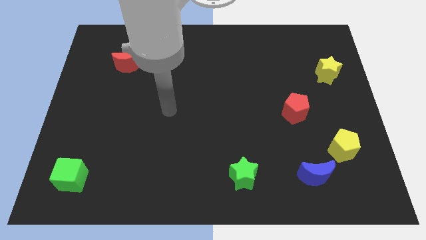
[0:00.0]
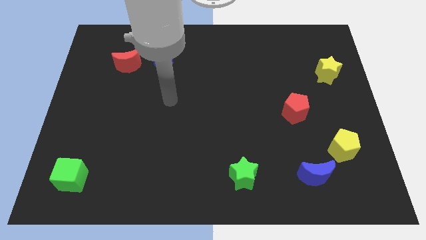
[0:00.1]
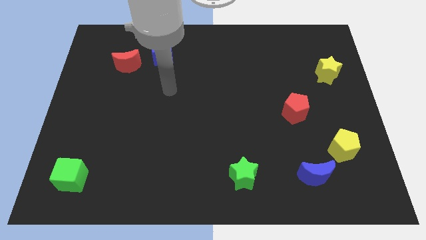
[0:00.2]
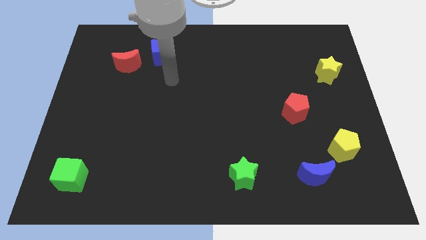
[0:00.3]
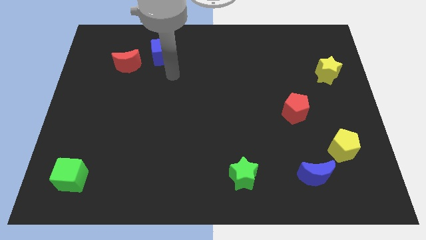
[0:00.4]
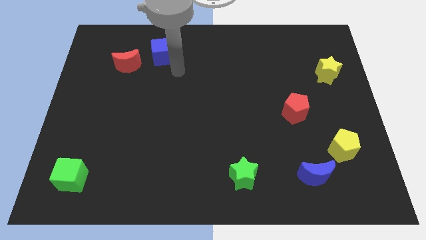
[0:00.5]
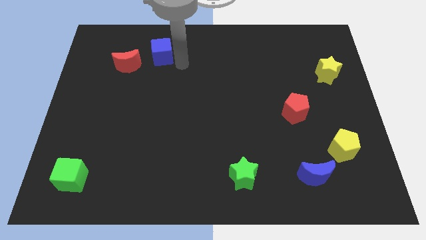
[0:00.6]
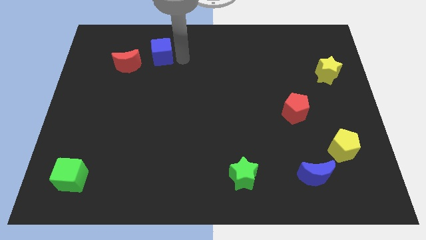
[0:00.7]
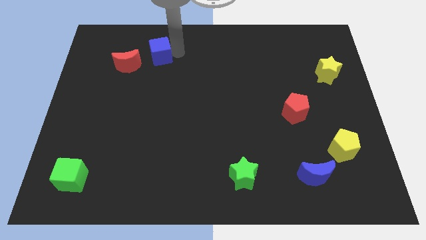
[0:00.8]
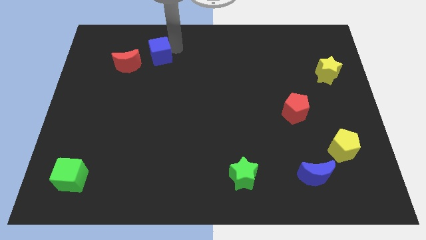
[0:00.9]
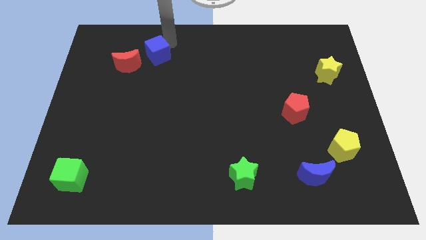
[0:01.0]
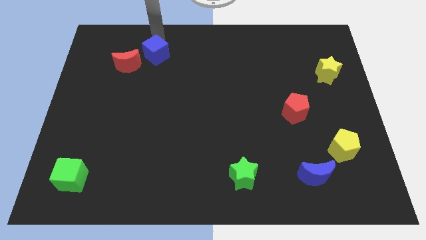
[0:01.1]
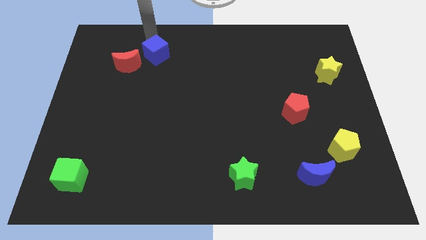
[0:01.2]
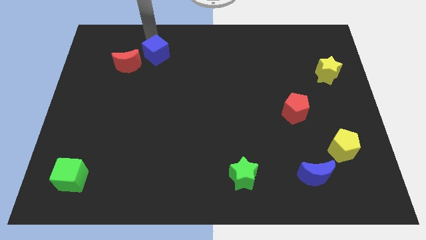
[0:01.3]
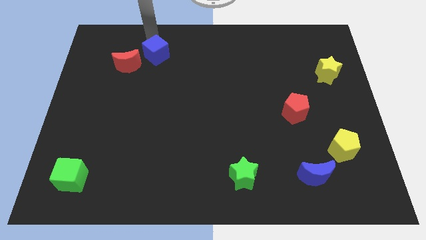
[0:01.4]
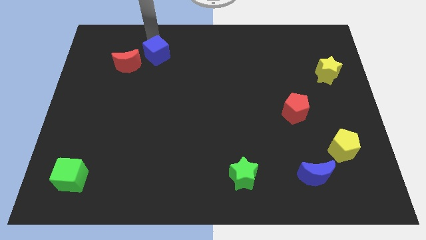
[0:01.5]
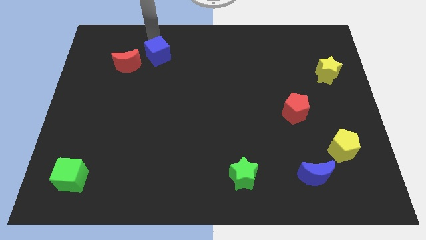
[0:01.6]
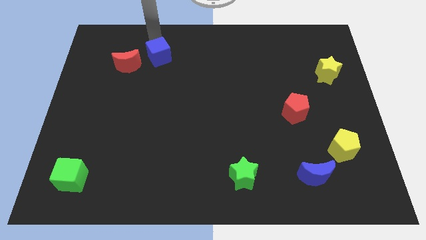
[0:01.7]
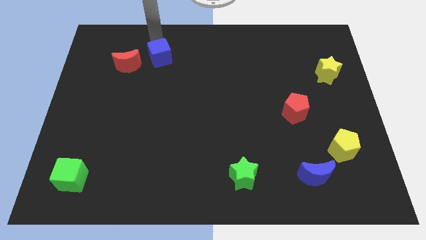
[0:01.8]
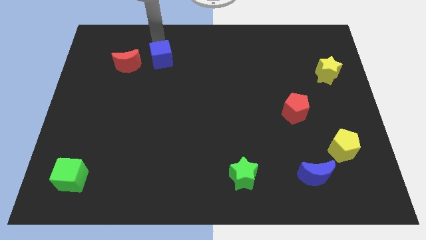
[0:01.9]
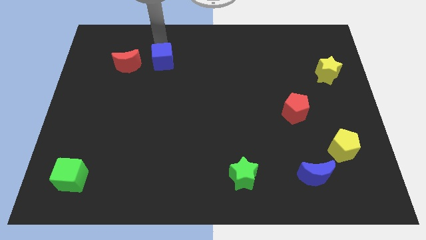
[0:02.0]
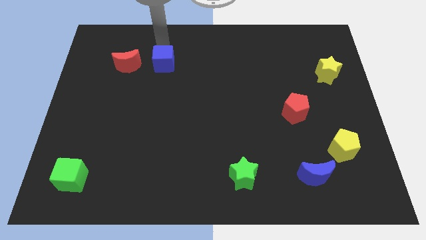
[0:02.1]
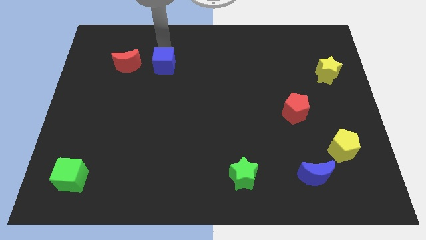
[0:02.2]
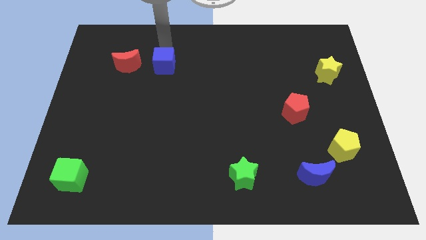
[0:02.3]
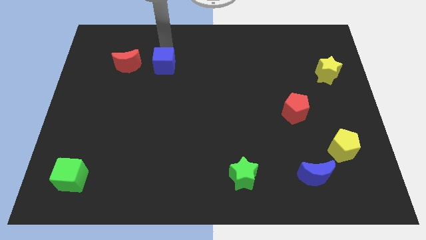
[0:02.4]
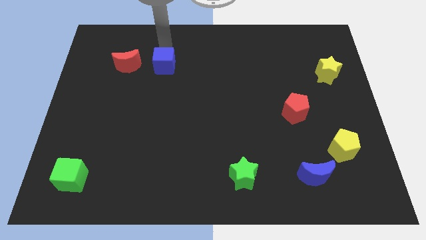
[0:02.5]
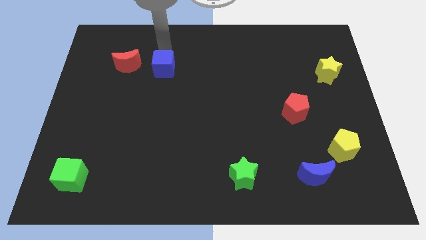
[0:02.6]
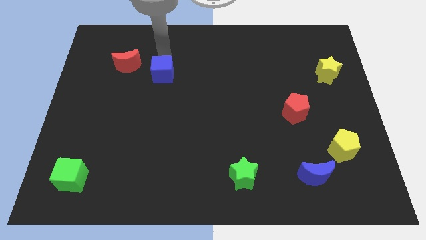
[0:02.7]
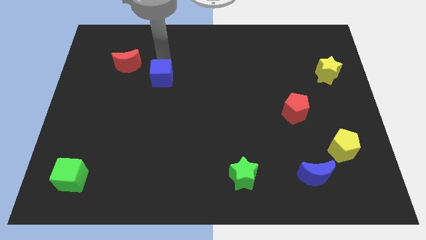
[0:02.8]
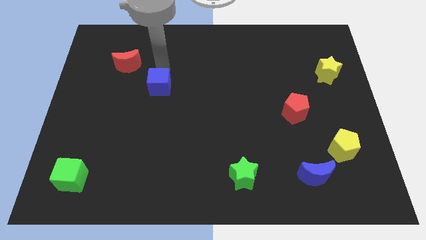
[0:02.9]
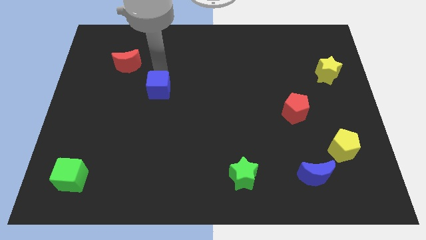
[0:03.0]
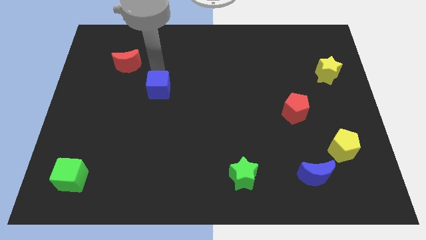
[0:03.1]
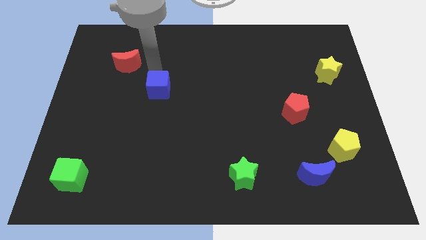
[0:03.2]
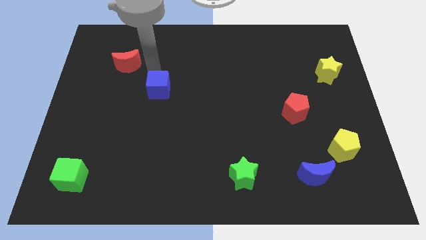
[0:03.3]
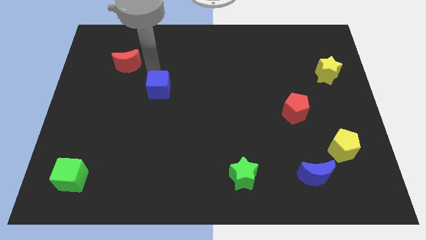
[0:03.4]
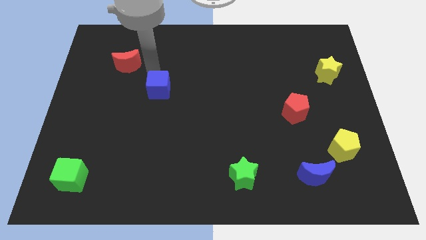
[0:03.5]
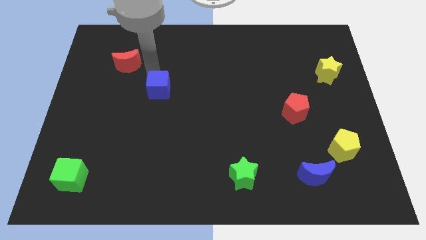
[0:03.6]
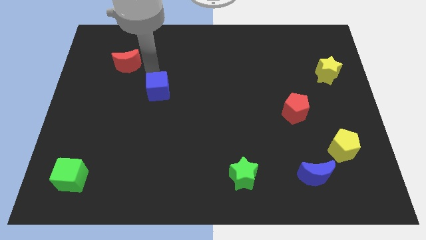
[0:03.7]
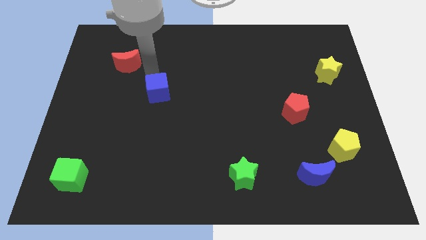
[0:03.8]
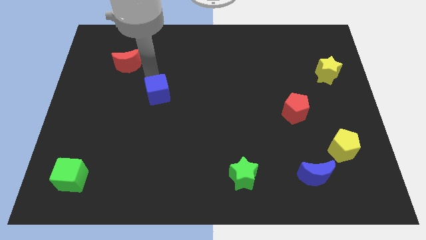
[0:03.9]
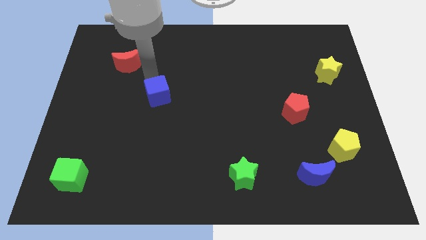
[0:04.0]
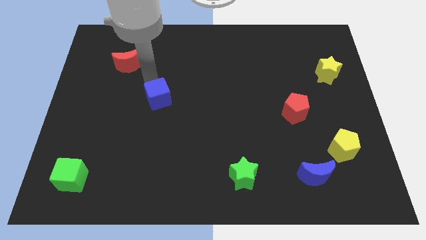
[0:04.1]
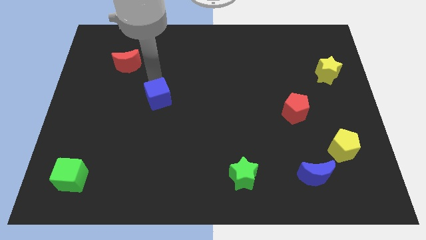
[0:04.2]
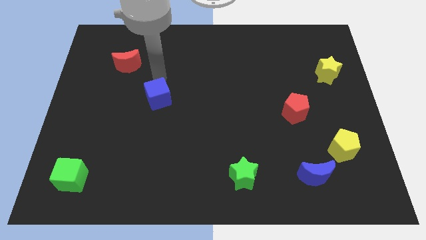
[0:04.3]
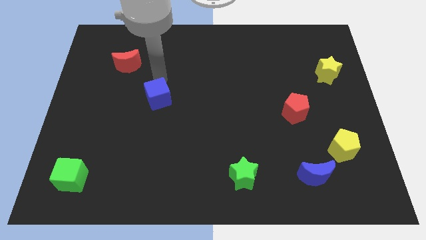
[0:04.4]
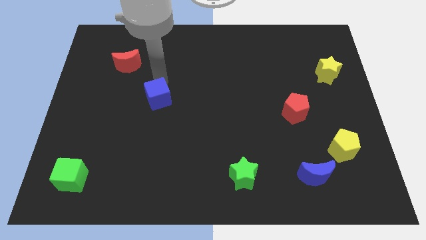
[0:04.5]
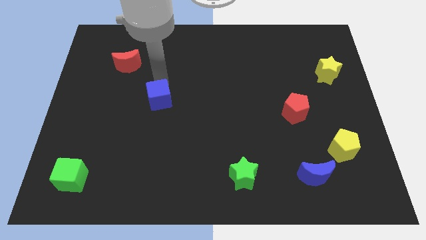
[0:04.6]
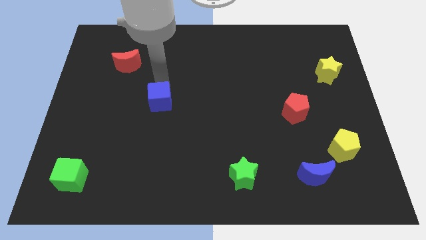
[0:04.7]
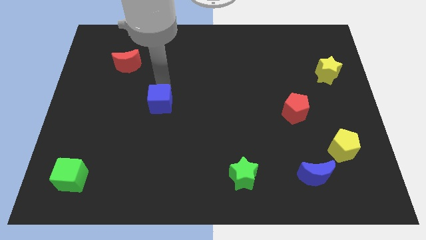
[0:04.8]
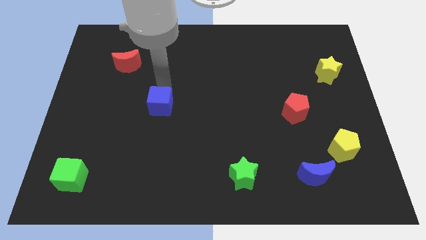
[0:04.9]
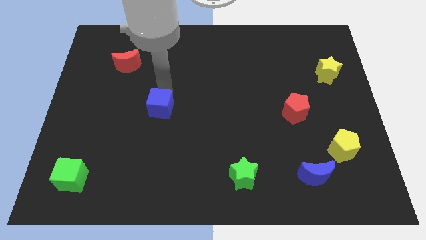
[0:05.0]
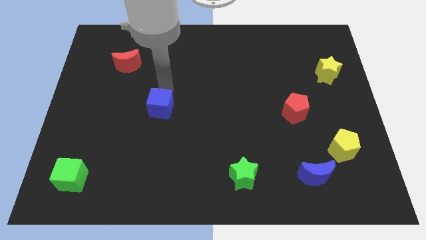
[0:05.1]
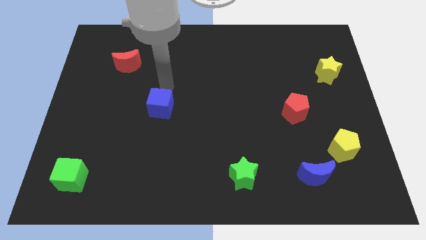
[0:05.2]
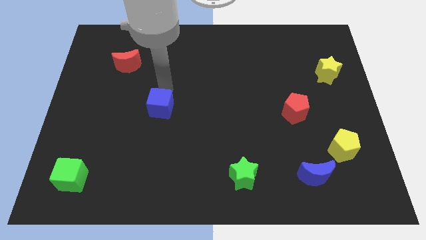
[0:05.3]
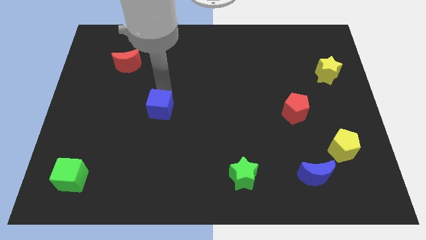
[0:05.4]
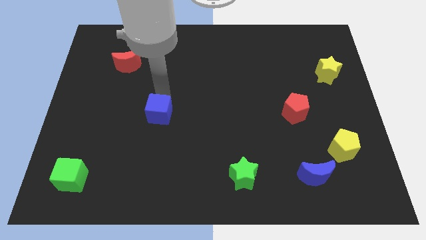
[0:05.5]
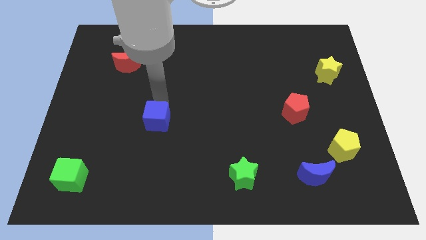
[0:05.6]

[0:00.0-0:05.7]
move the blue cube downwards

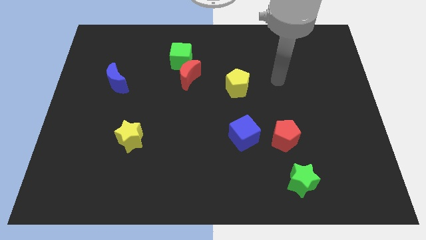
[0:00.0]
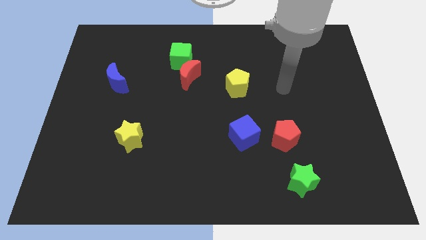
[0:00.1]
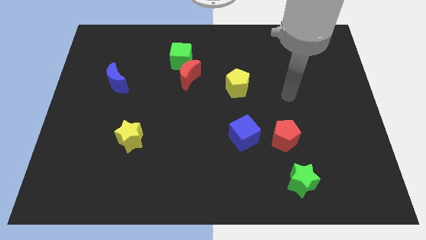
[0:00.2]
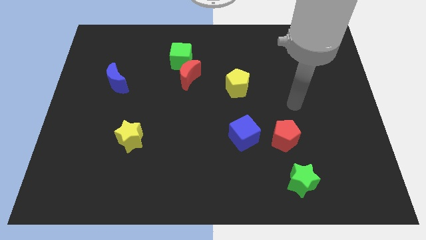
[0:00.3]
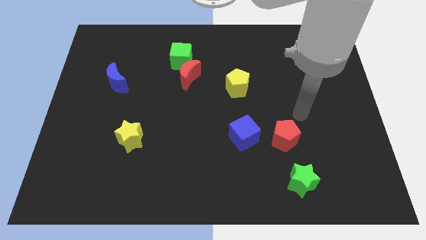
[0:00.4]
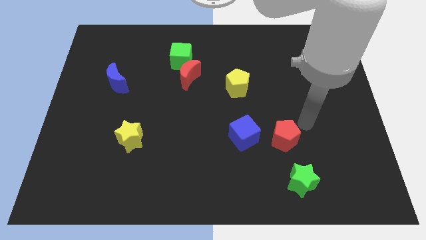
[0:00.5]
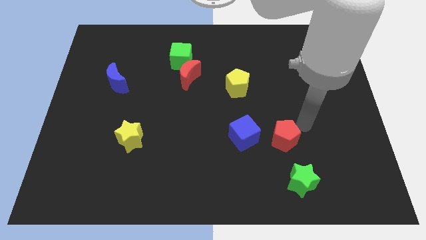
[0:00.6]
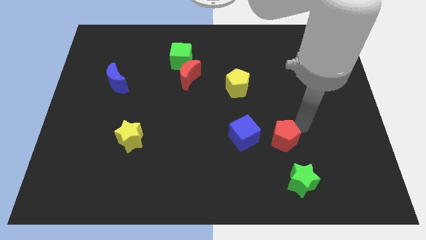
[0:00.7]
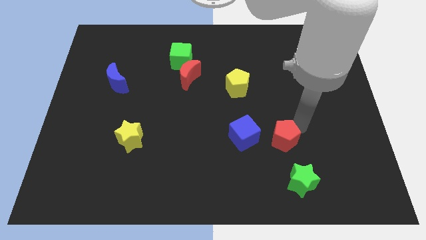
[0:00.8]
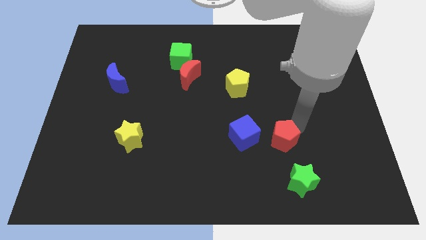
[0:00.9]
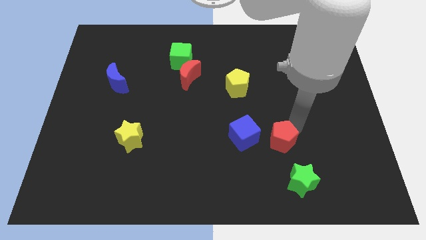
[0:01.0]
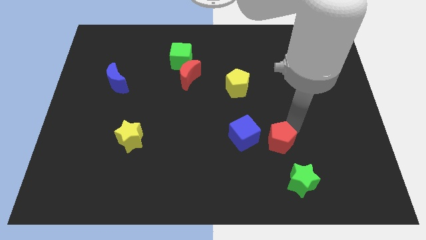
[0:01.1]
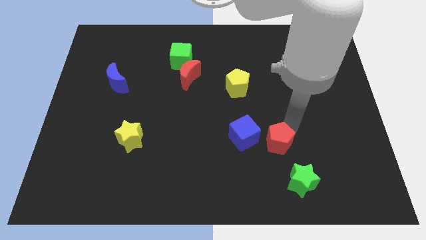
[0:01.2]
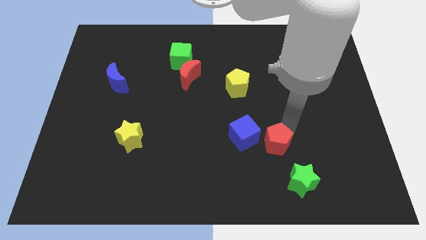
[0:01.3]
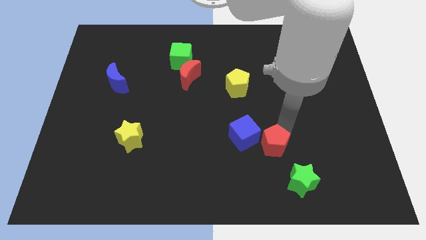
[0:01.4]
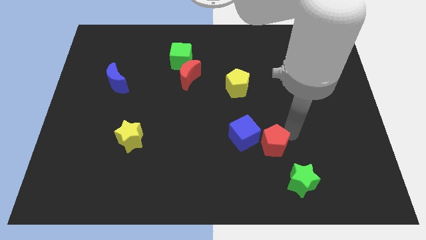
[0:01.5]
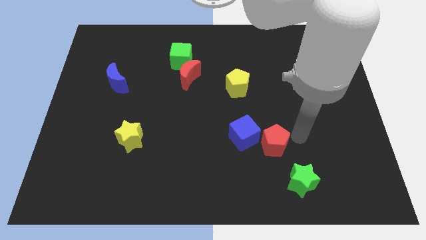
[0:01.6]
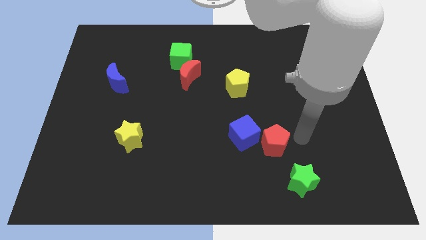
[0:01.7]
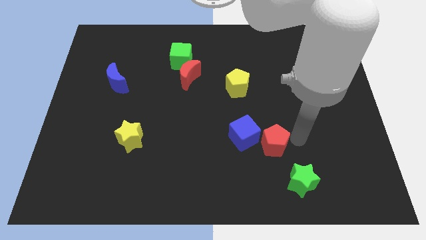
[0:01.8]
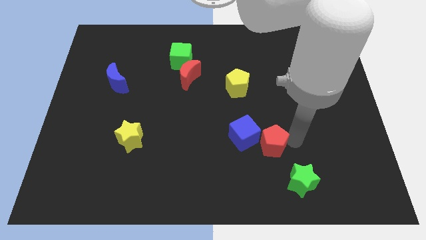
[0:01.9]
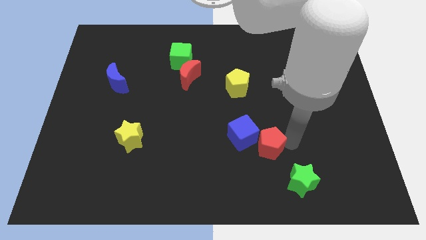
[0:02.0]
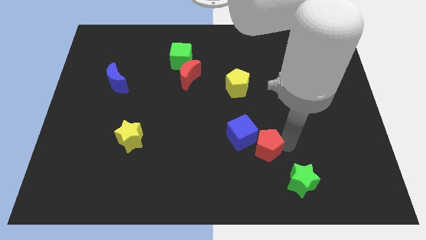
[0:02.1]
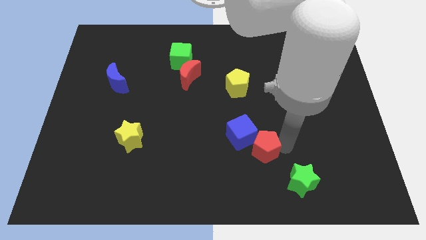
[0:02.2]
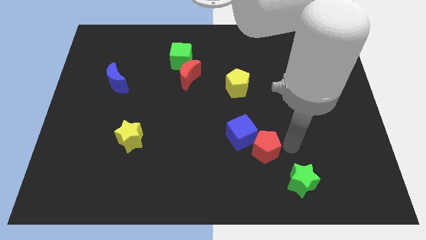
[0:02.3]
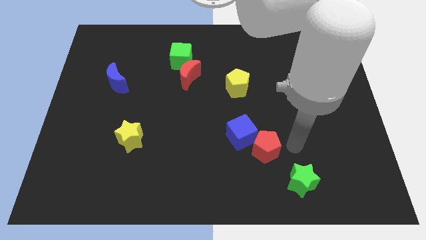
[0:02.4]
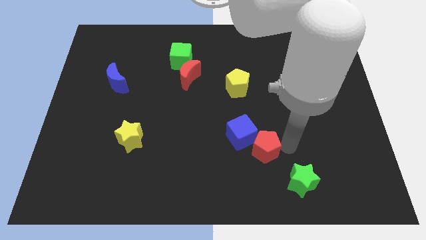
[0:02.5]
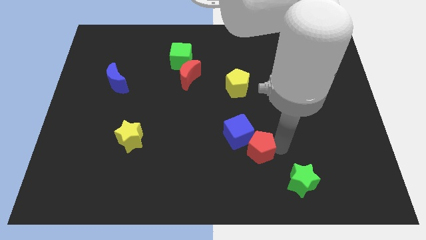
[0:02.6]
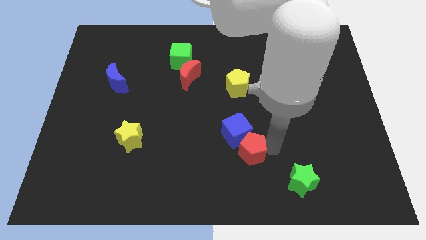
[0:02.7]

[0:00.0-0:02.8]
slide the red pentagon a little bit to the left
